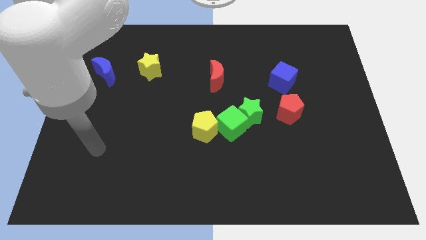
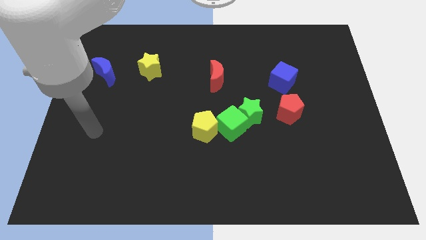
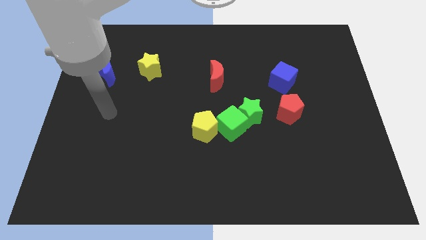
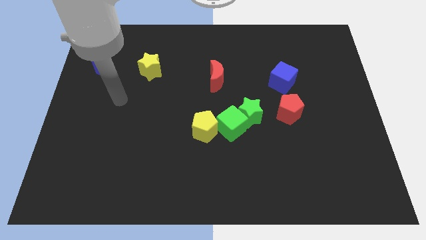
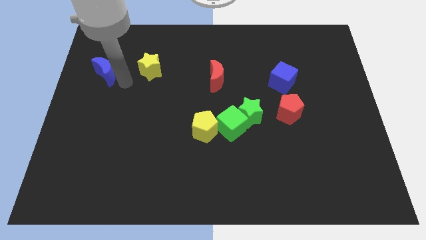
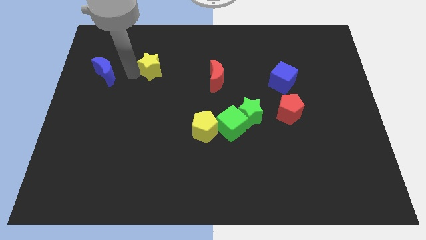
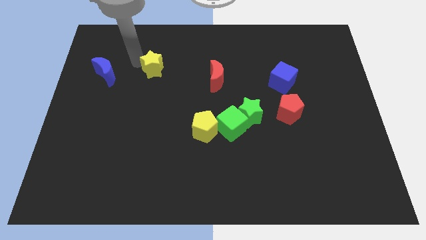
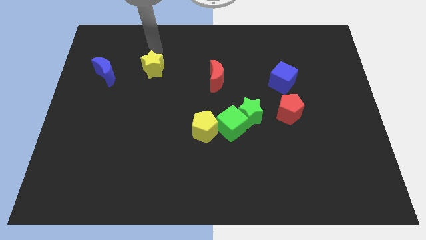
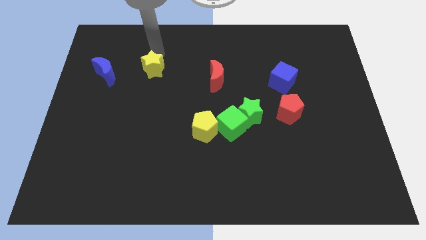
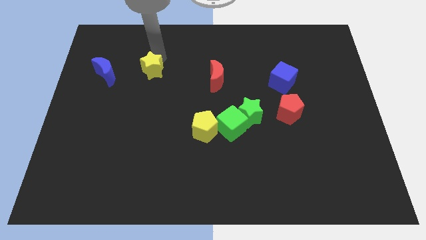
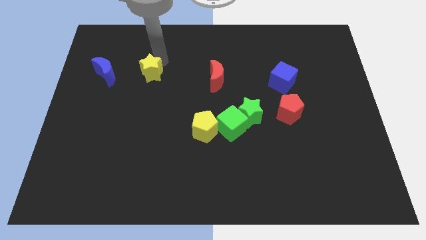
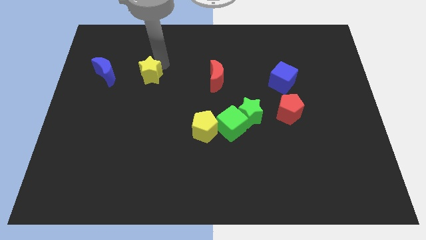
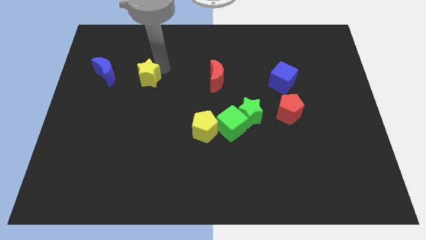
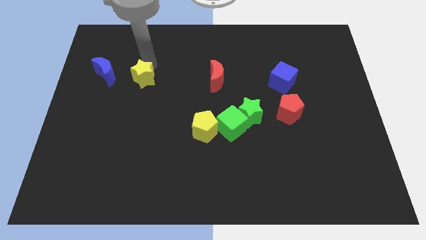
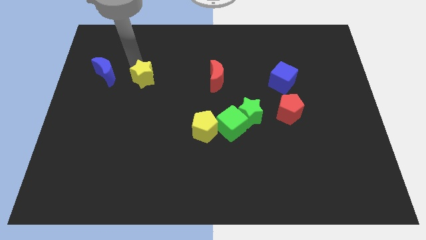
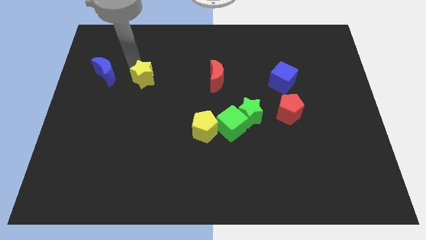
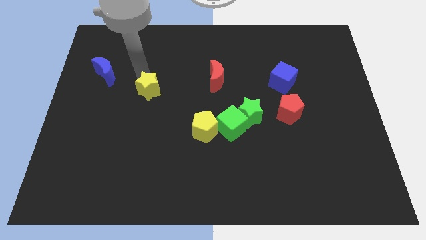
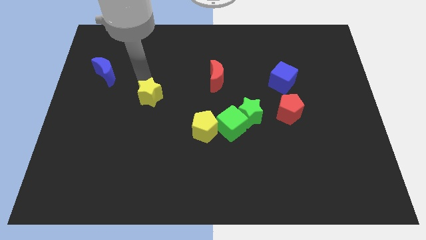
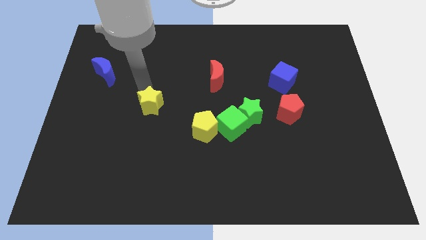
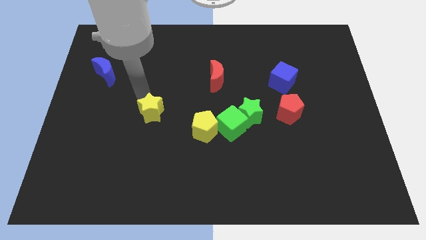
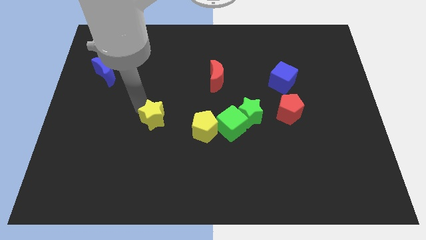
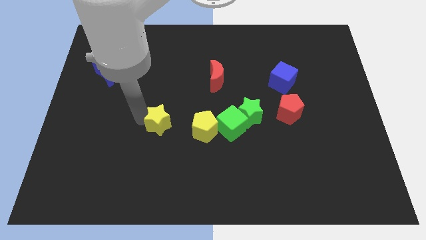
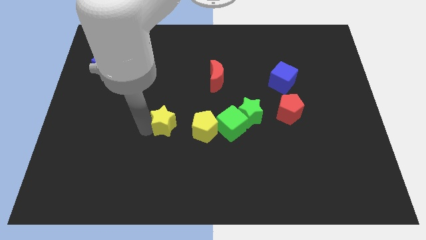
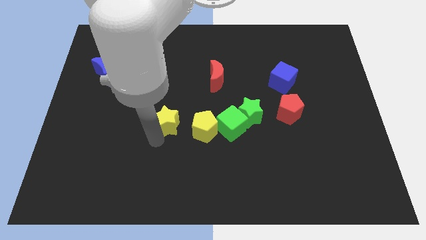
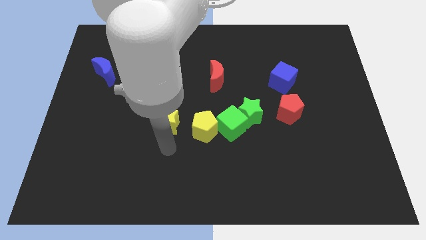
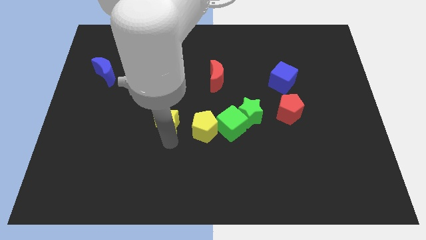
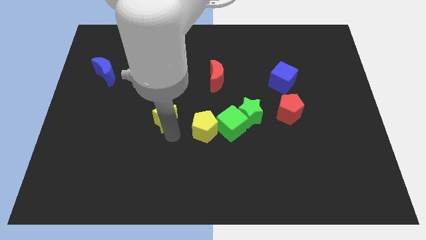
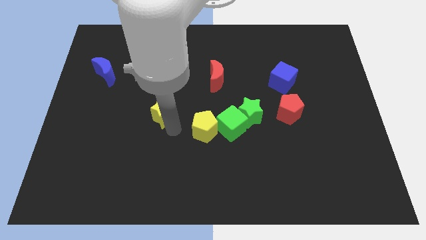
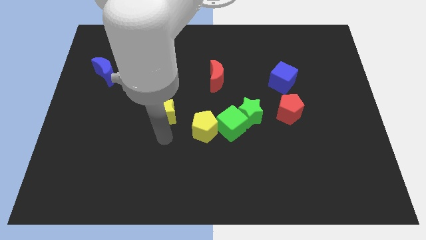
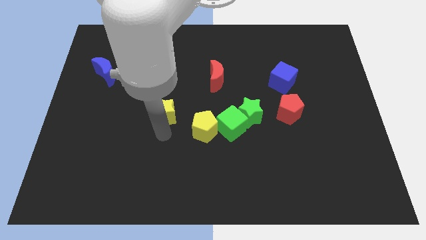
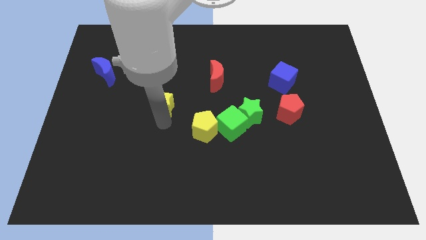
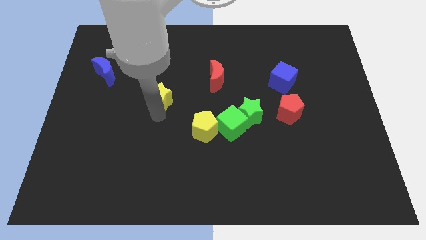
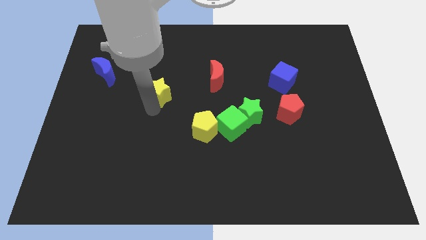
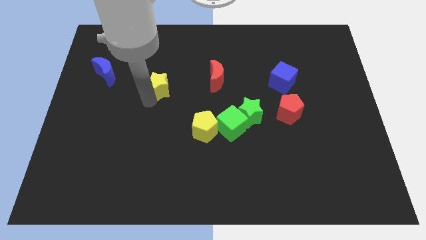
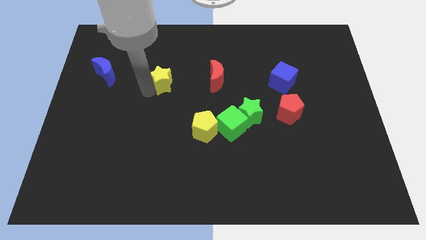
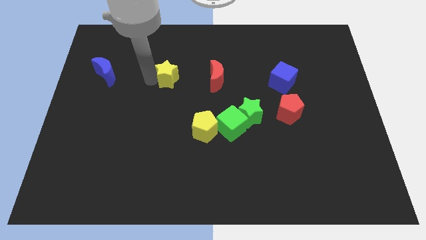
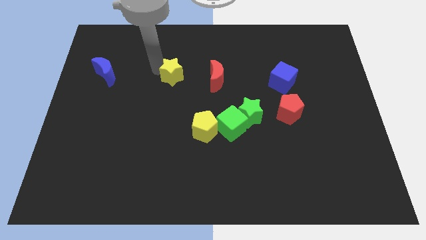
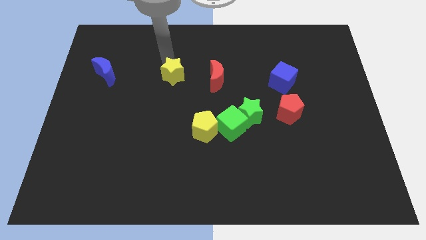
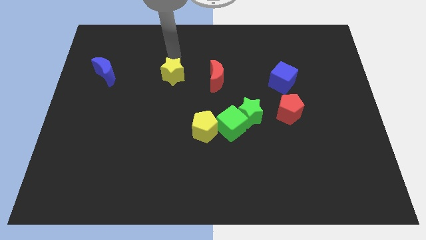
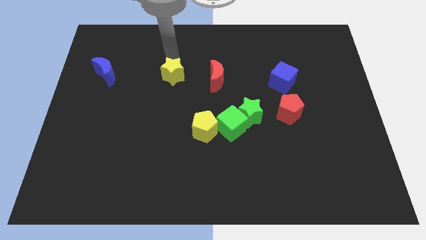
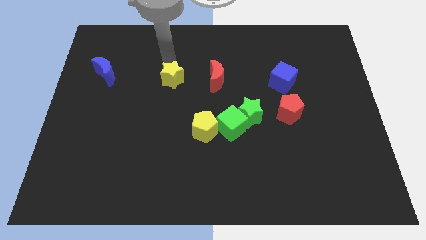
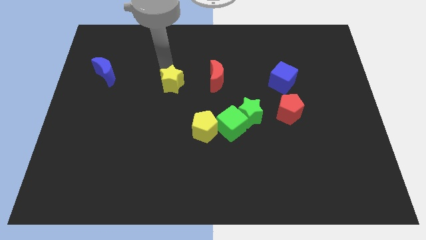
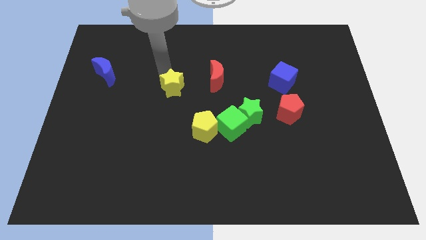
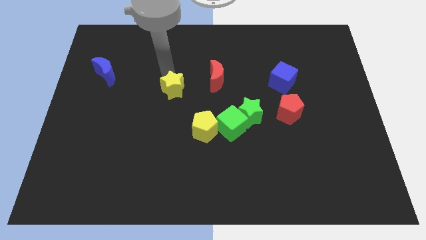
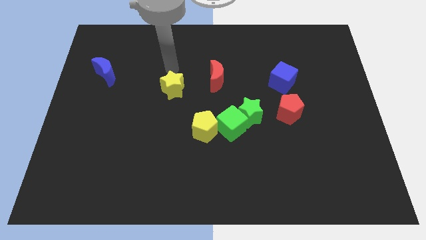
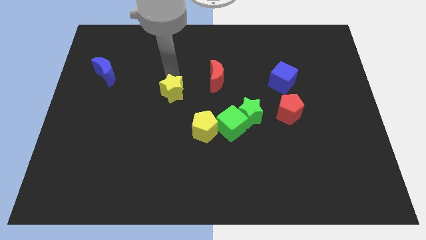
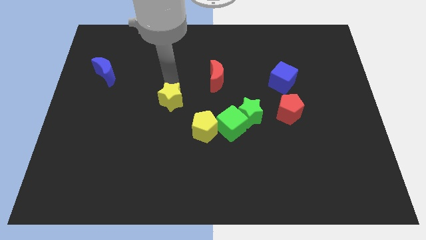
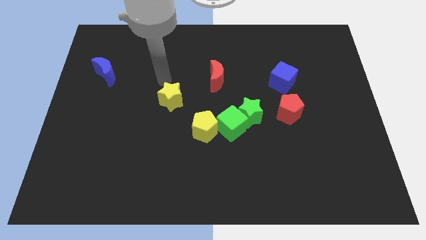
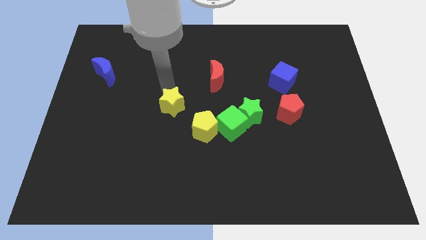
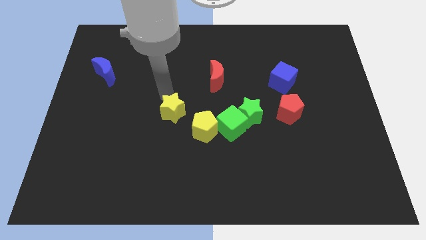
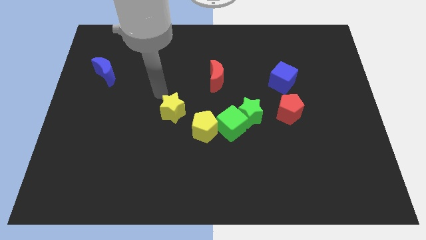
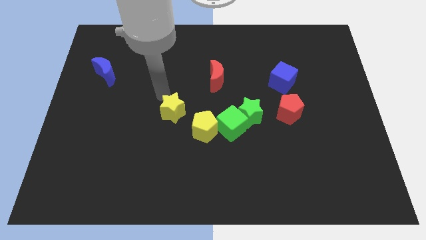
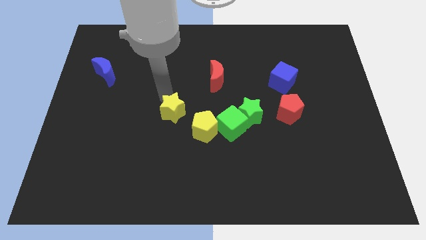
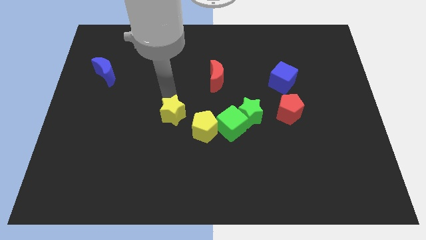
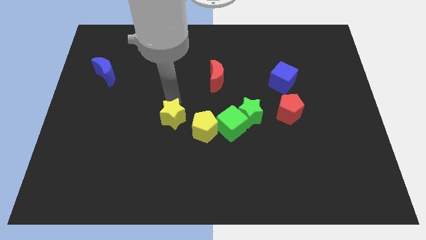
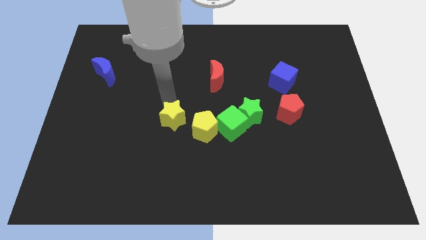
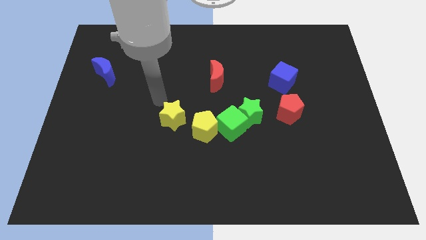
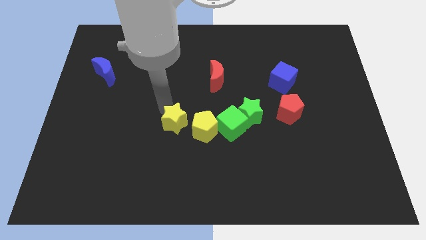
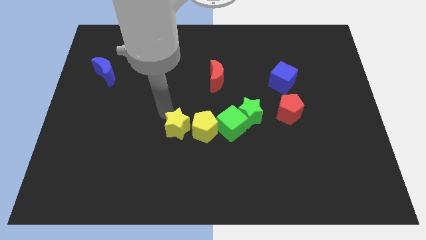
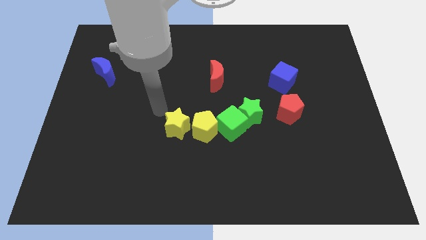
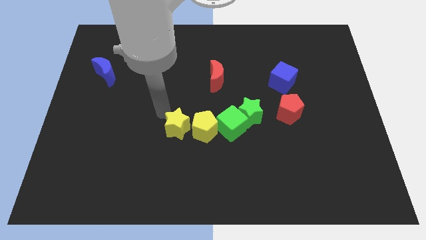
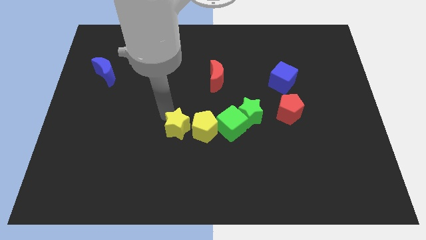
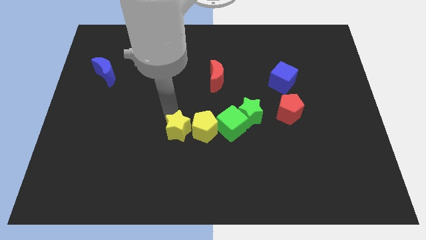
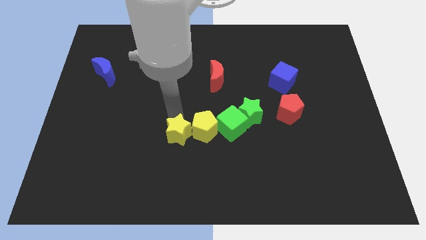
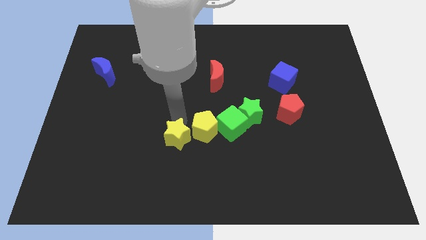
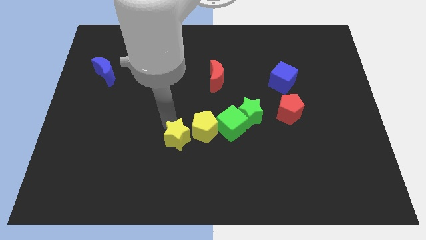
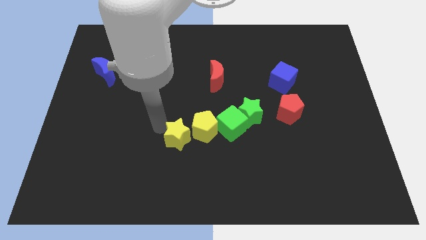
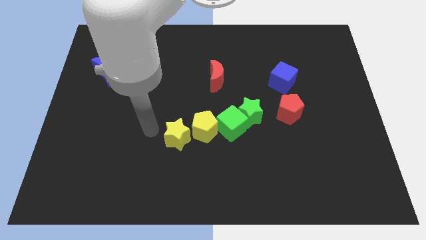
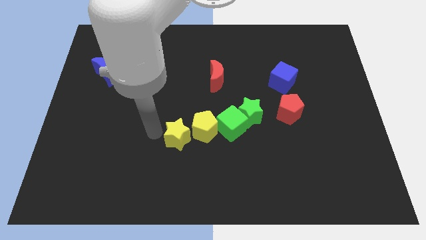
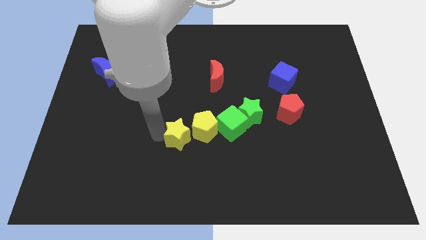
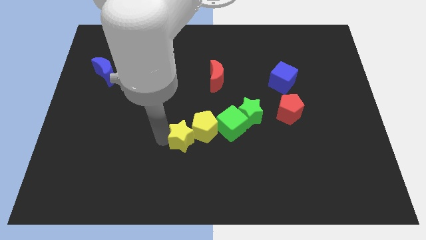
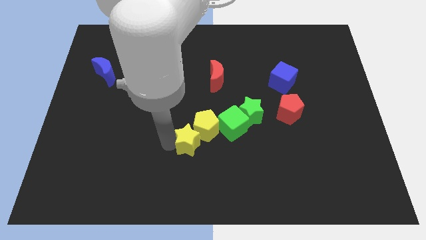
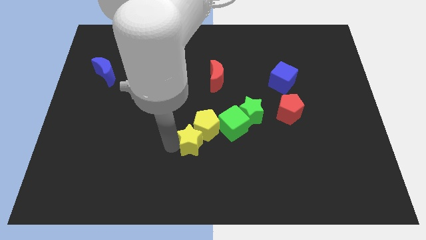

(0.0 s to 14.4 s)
slide the yellow star down and right diagonally

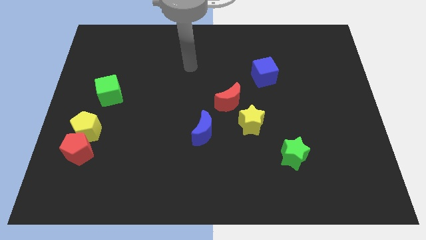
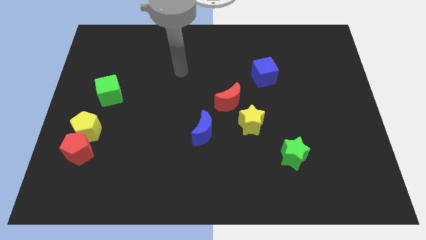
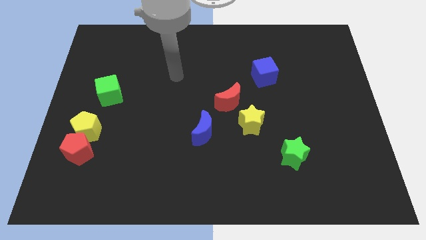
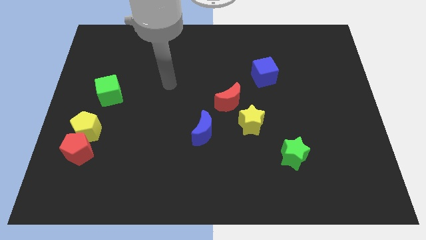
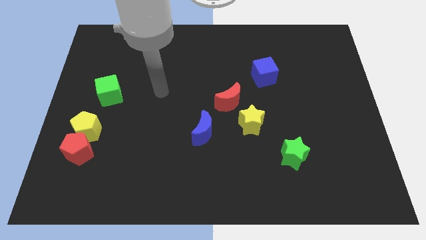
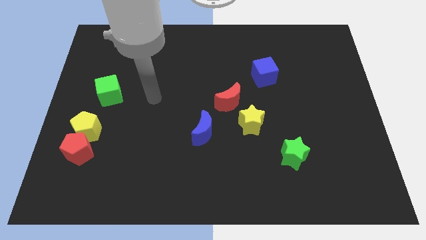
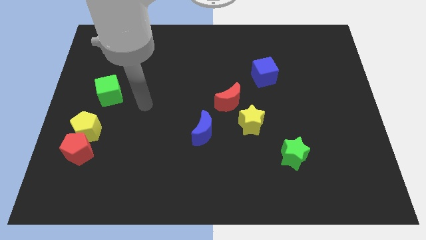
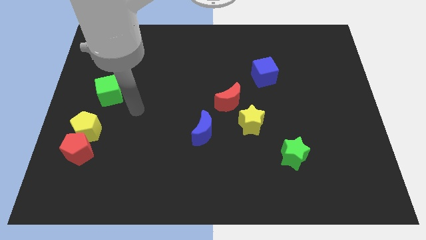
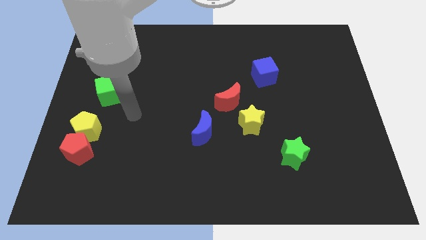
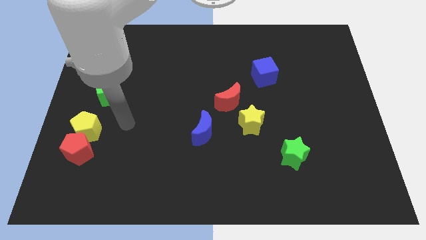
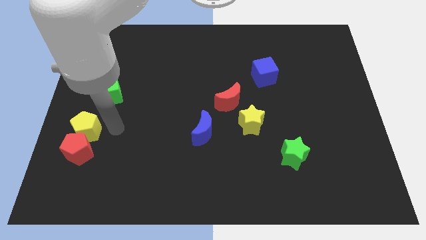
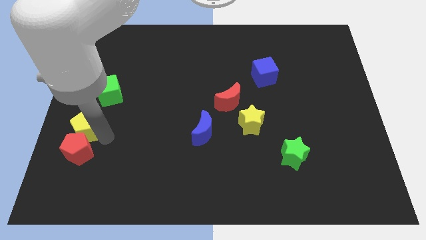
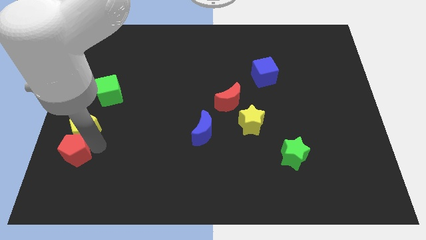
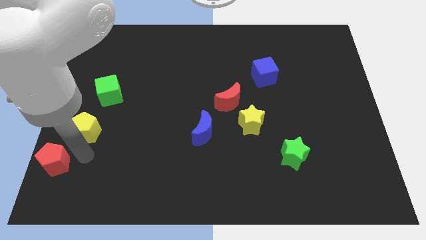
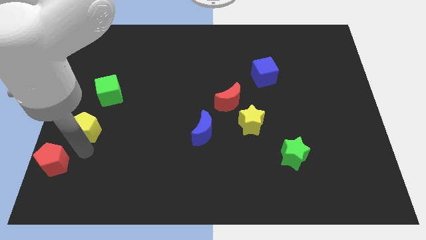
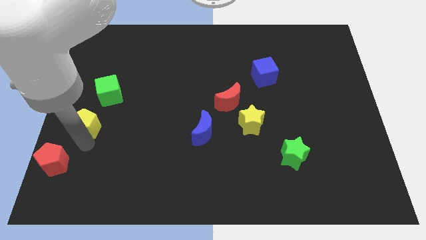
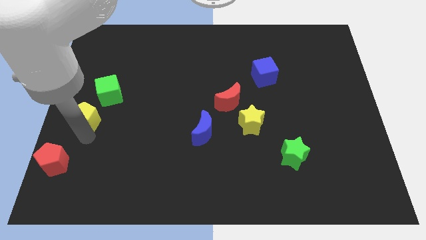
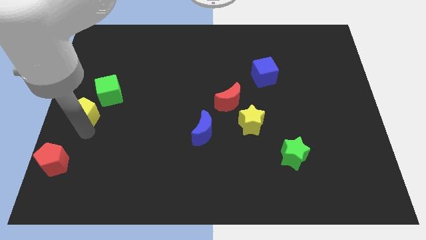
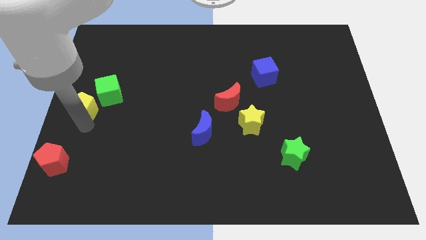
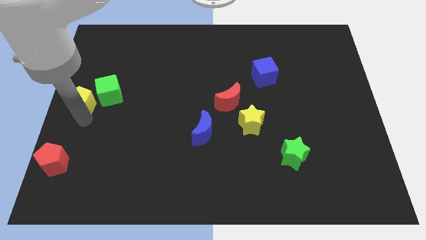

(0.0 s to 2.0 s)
push the yellow pentagon up somewhat
